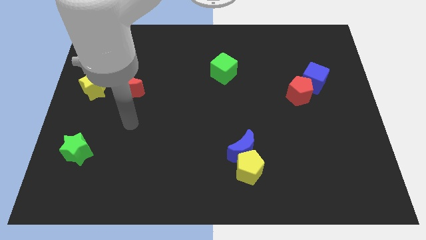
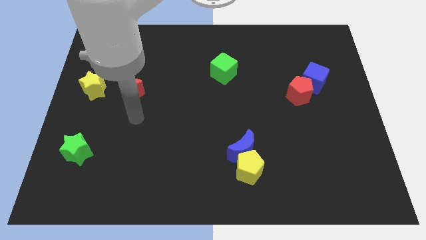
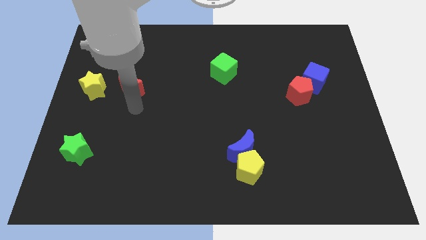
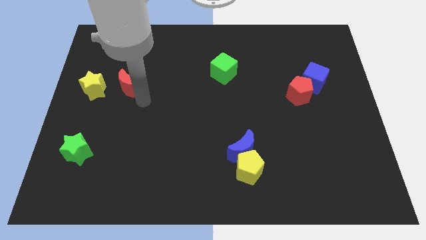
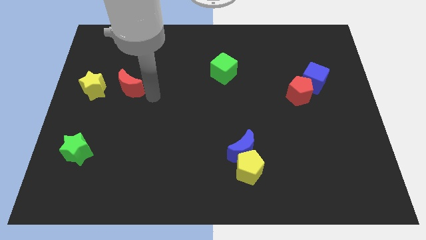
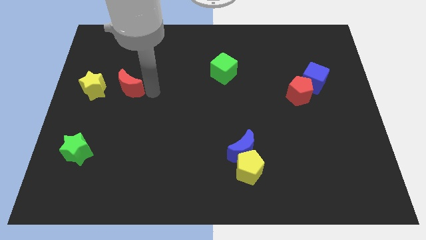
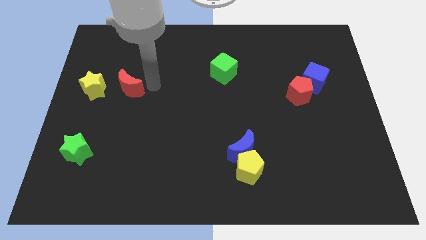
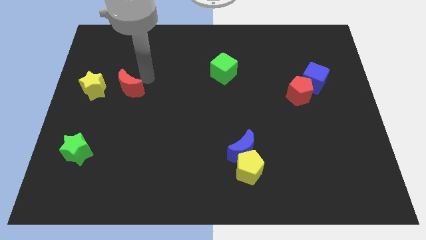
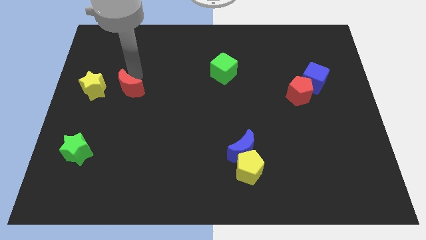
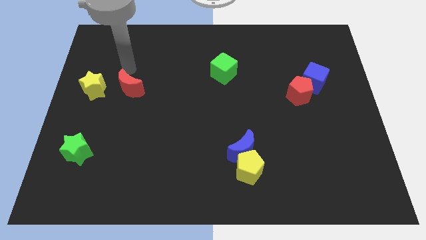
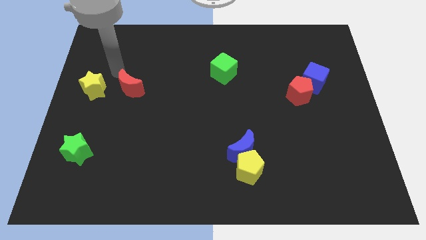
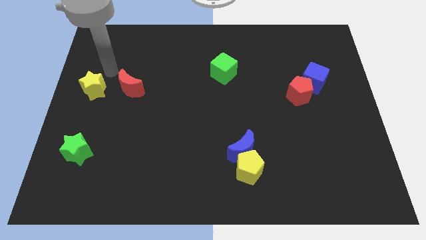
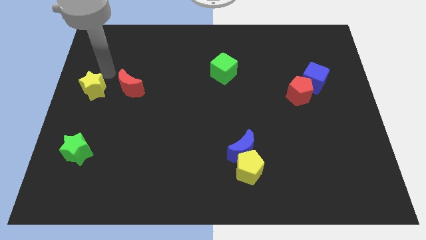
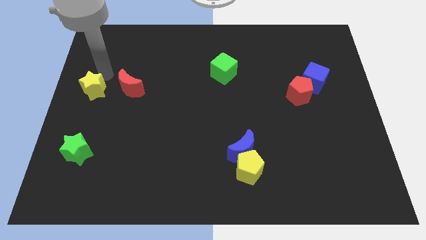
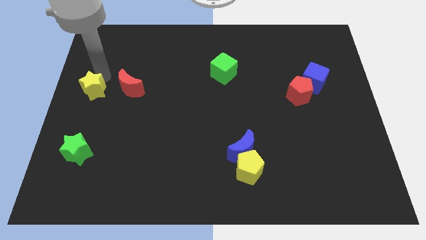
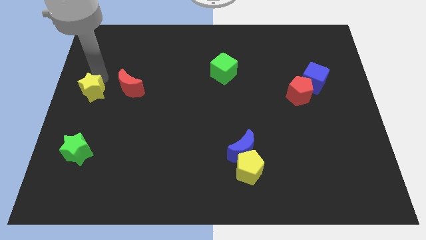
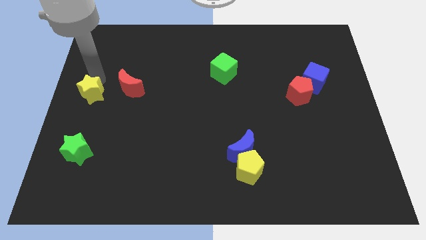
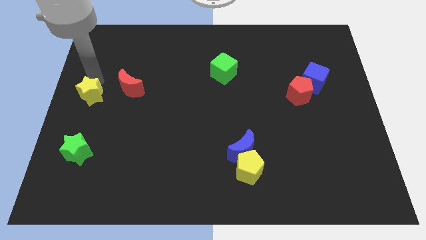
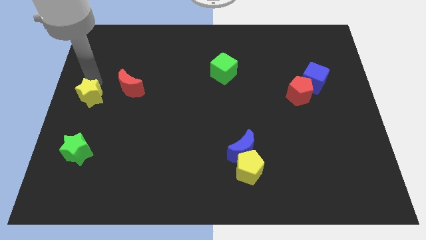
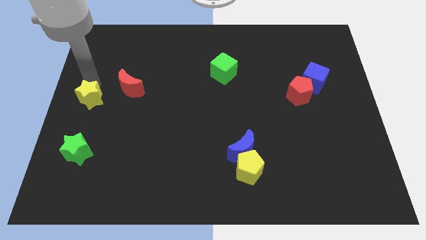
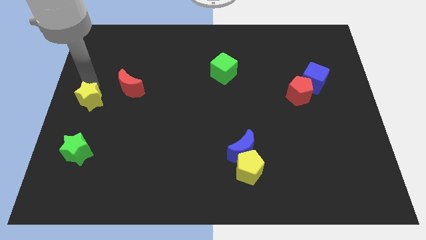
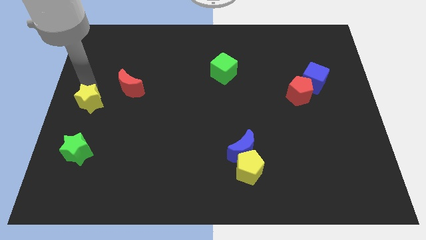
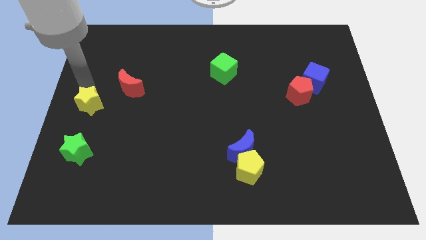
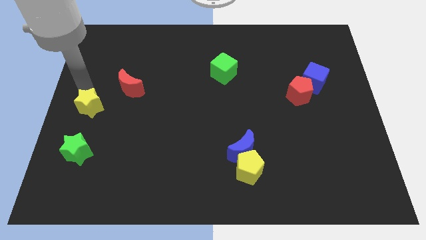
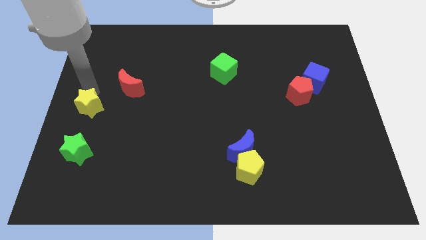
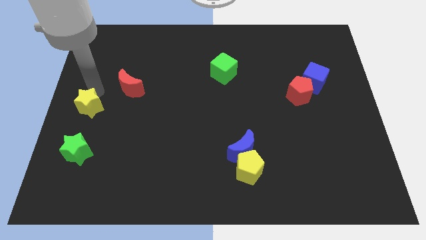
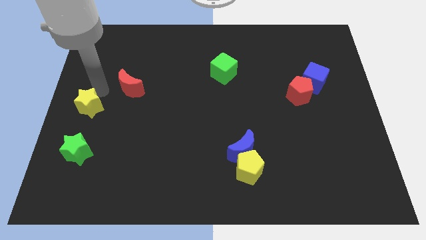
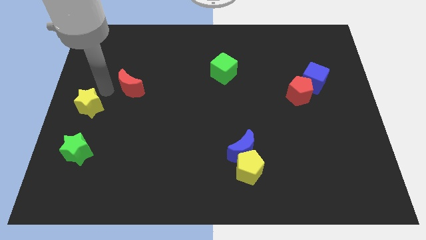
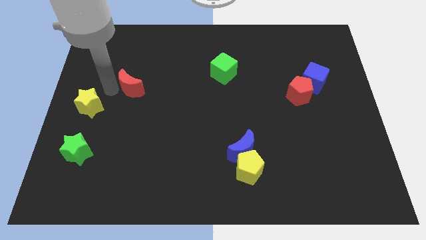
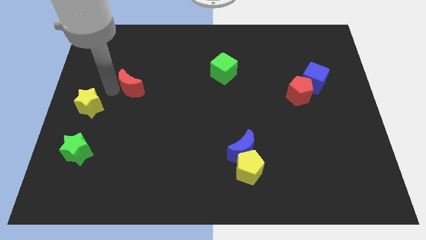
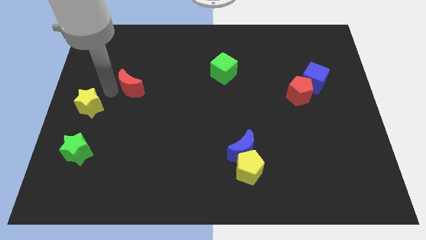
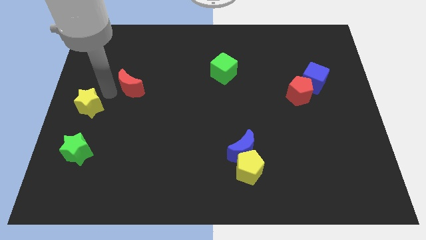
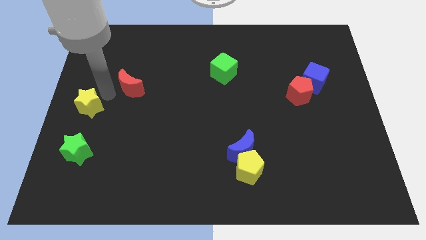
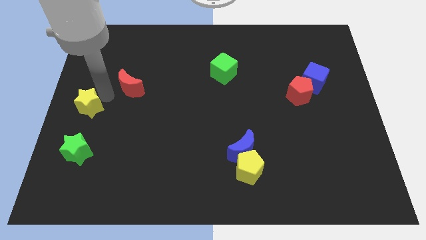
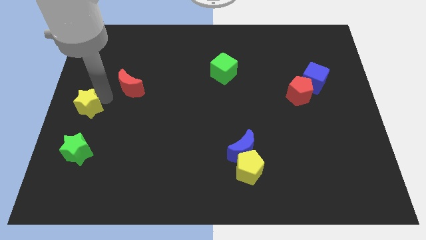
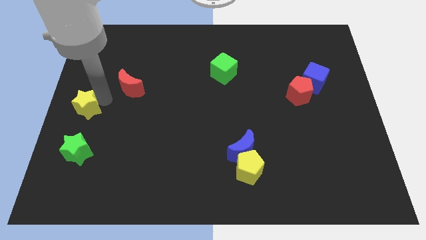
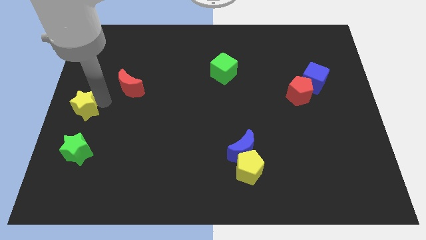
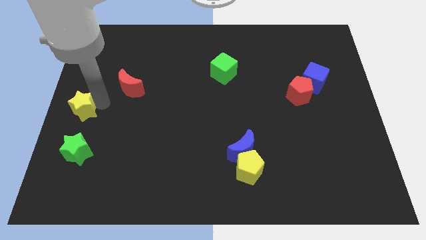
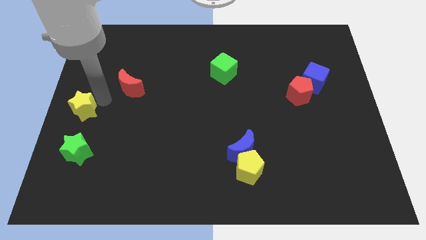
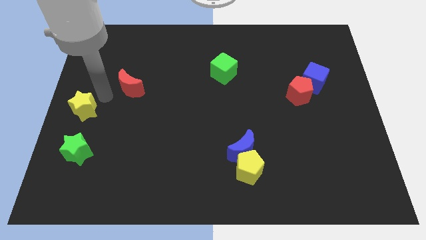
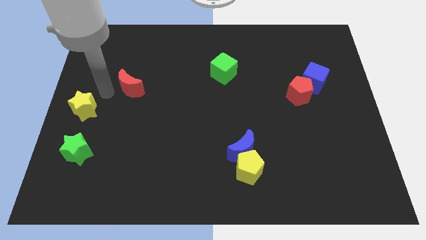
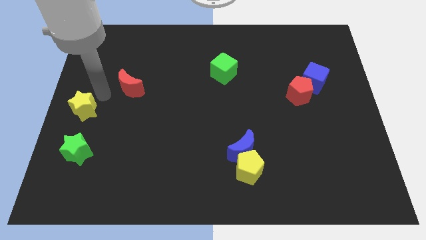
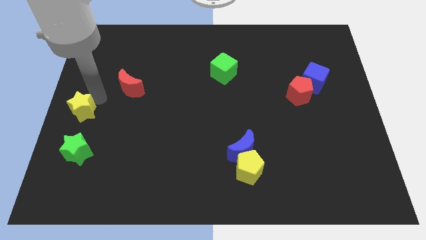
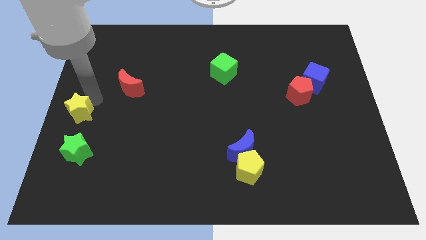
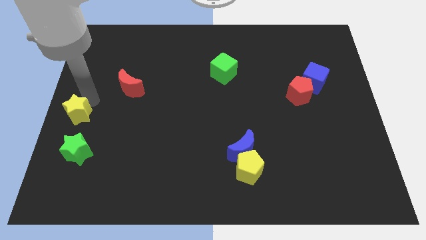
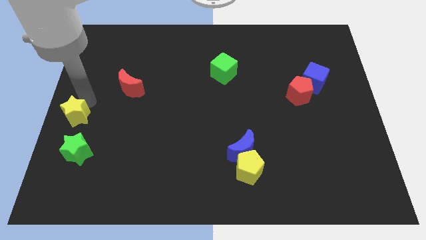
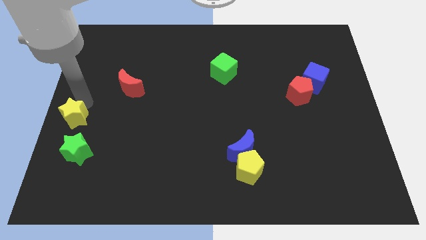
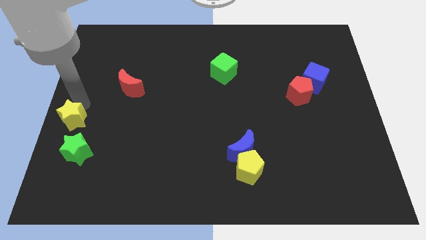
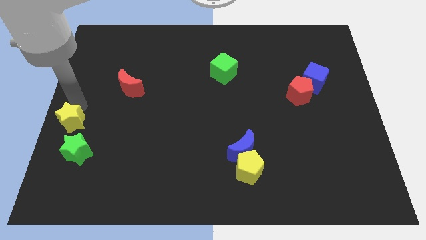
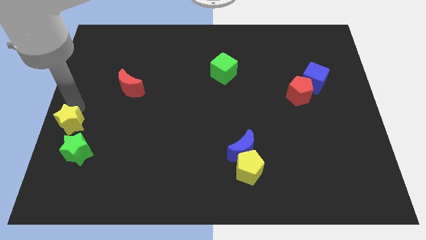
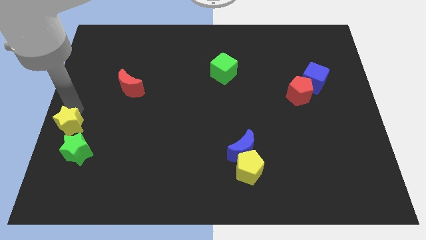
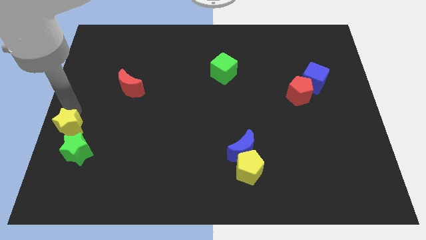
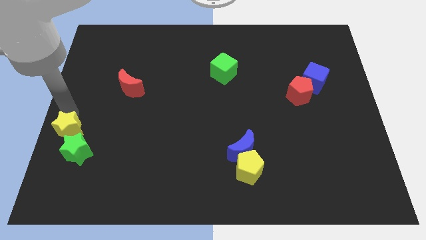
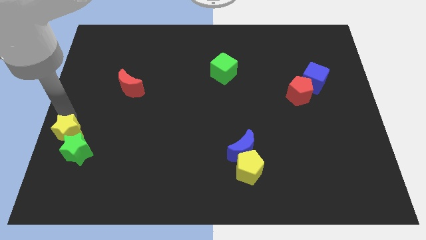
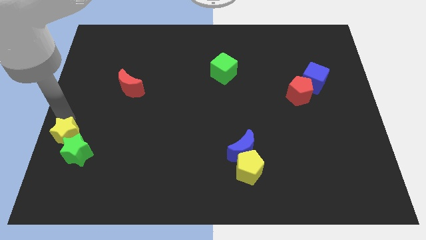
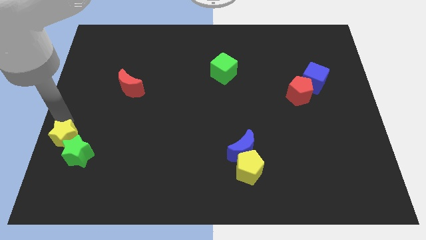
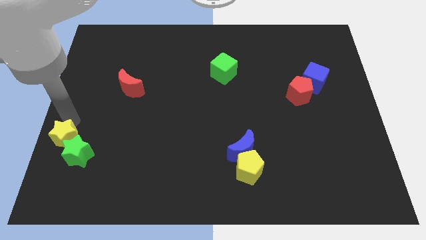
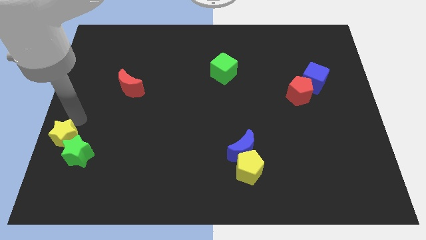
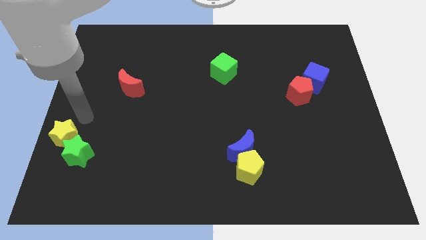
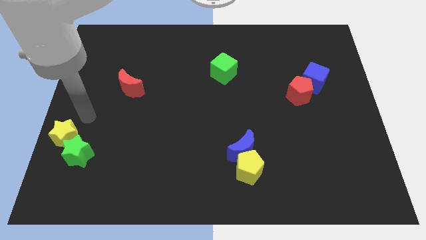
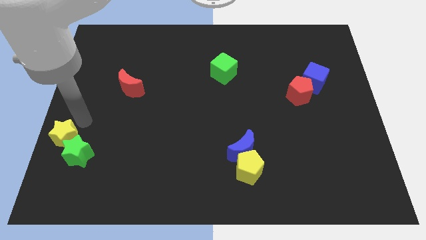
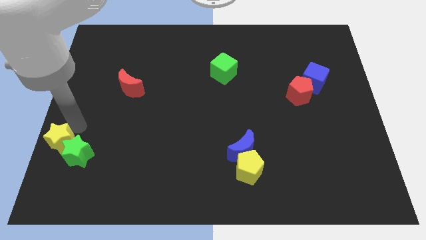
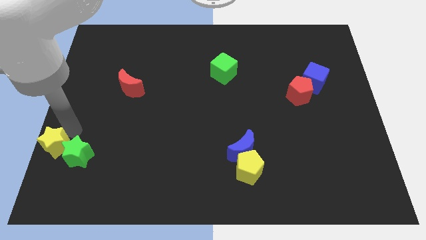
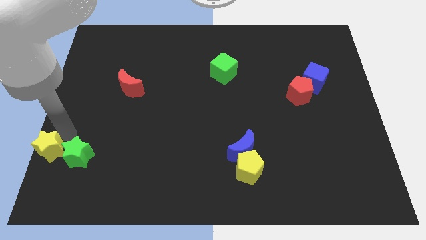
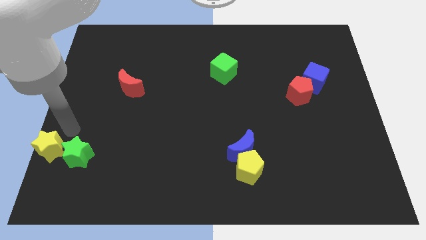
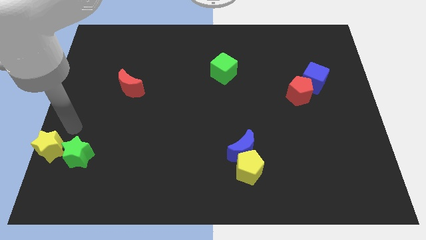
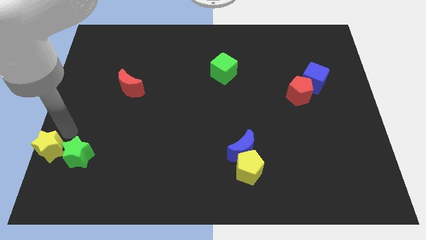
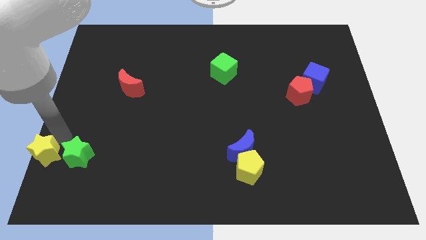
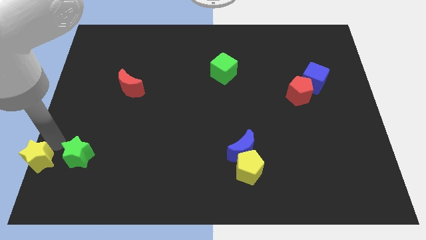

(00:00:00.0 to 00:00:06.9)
put the yellow star to the bottom left corner
